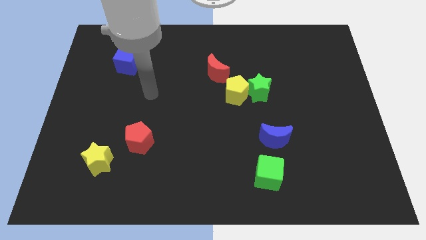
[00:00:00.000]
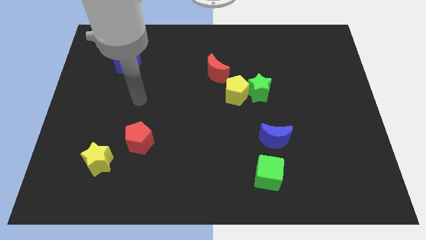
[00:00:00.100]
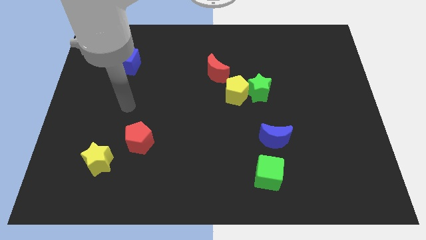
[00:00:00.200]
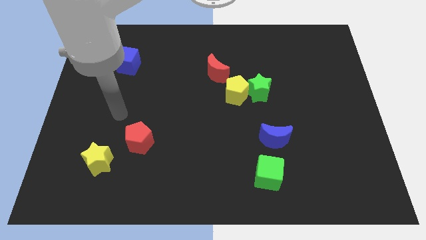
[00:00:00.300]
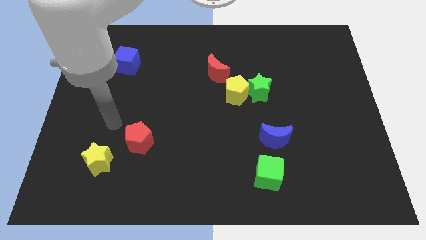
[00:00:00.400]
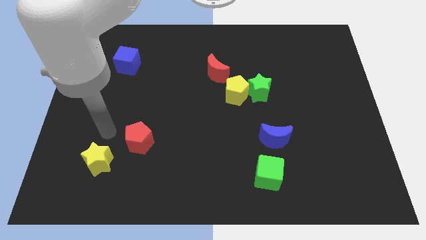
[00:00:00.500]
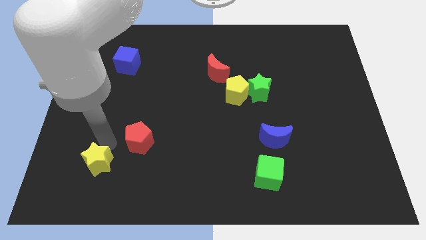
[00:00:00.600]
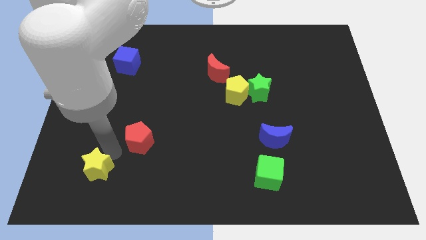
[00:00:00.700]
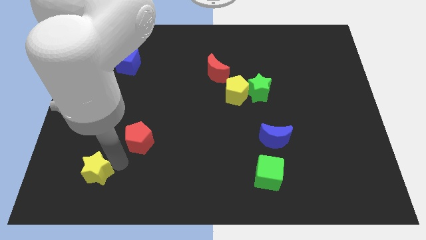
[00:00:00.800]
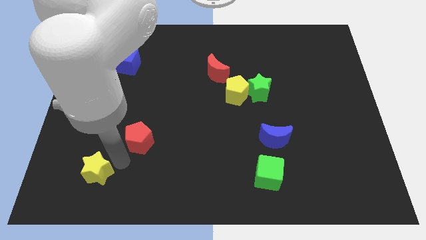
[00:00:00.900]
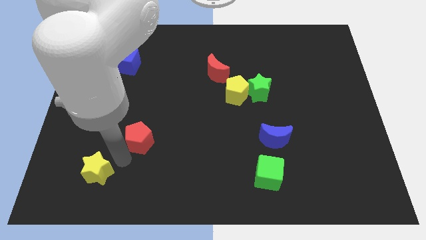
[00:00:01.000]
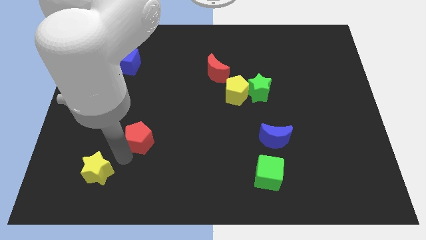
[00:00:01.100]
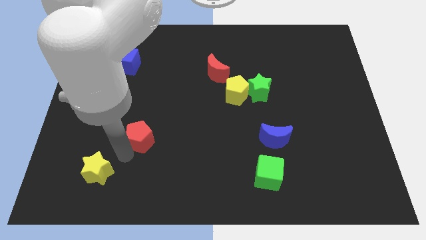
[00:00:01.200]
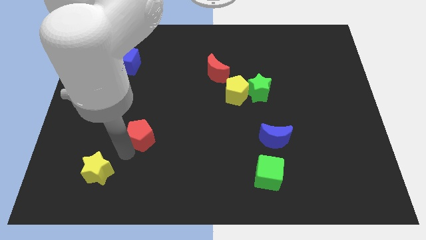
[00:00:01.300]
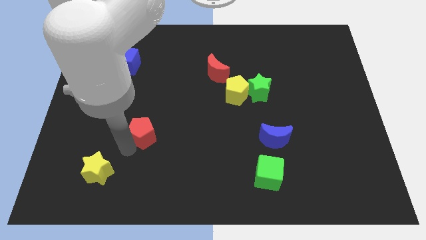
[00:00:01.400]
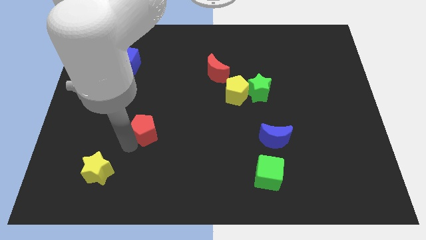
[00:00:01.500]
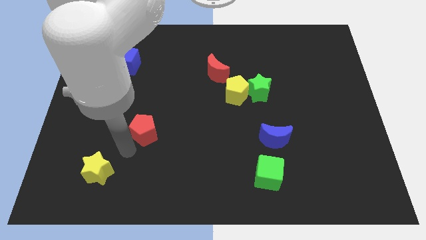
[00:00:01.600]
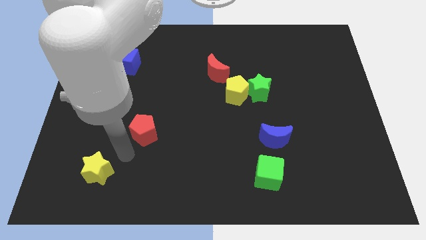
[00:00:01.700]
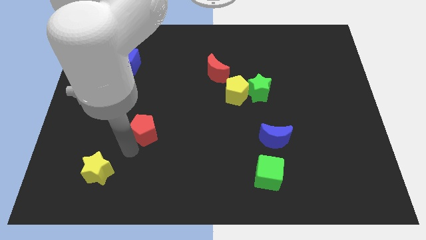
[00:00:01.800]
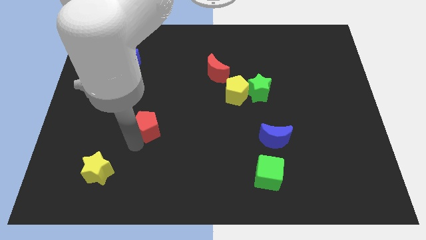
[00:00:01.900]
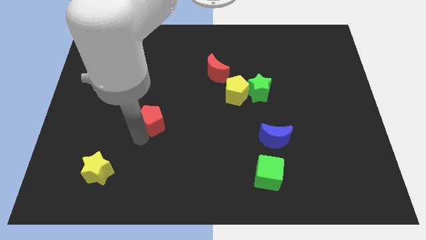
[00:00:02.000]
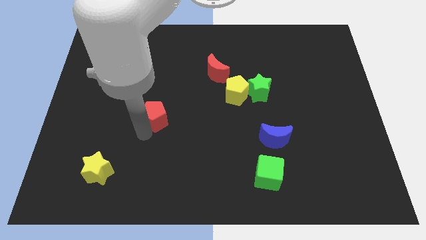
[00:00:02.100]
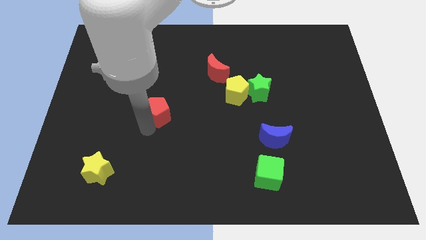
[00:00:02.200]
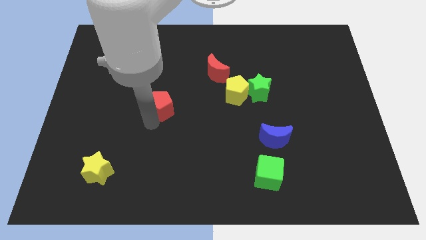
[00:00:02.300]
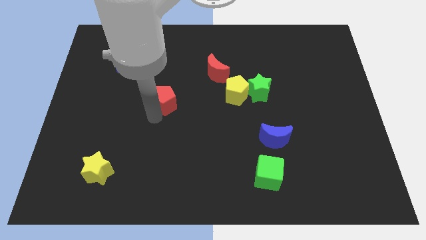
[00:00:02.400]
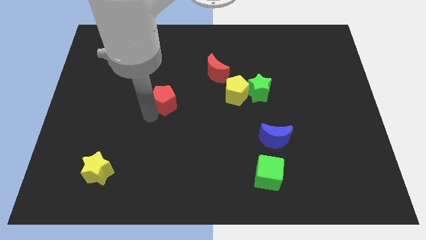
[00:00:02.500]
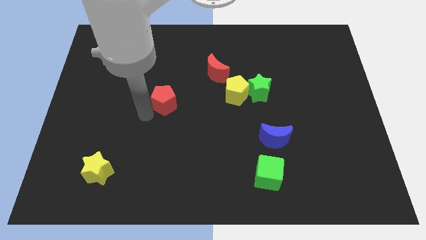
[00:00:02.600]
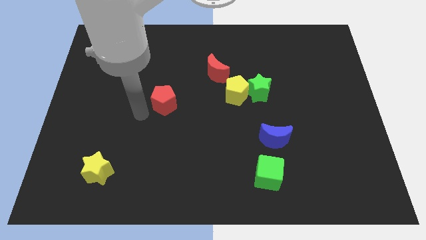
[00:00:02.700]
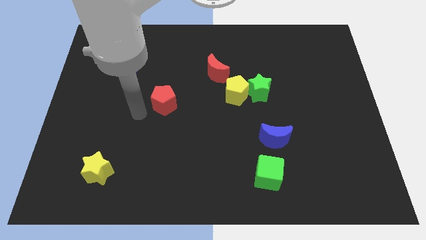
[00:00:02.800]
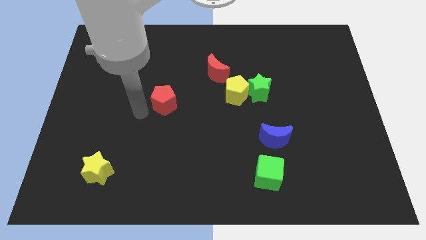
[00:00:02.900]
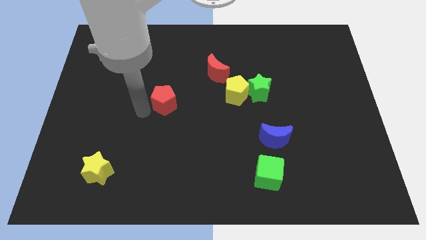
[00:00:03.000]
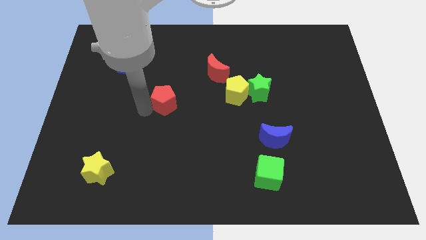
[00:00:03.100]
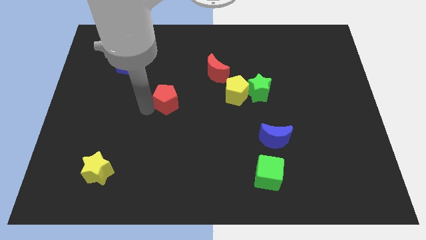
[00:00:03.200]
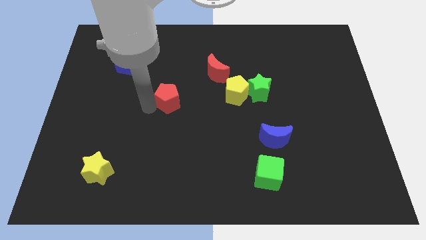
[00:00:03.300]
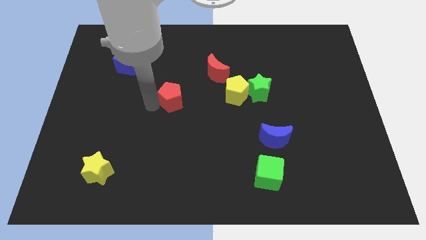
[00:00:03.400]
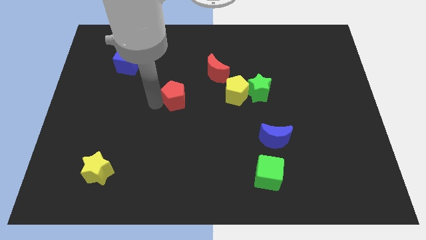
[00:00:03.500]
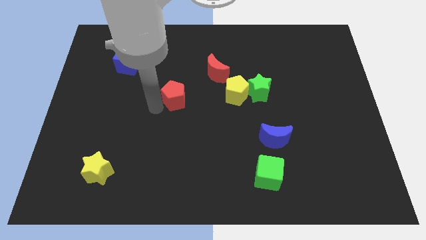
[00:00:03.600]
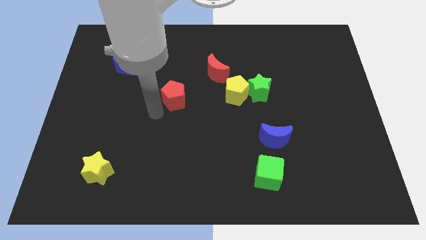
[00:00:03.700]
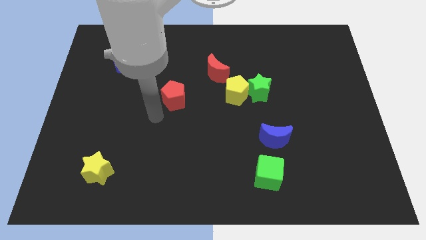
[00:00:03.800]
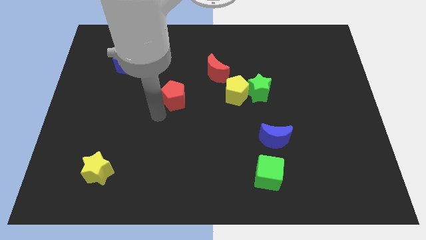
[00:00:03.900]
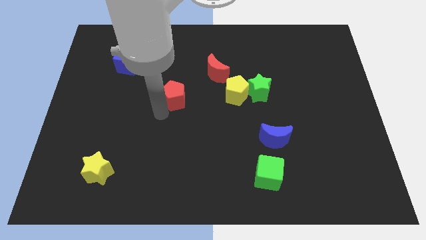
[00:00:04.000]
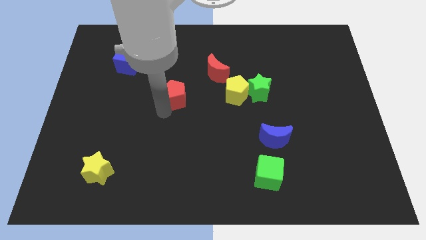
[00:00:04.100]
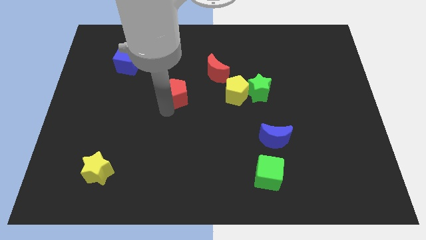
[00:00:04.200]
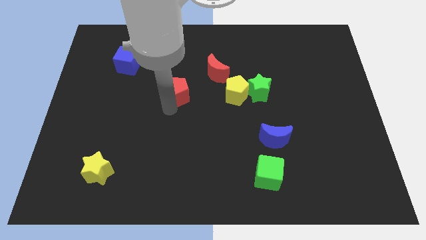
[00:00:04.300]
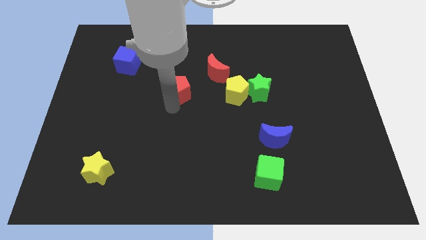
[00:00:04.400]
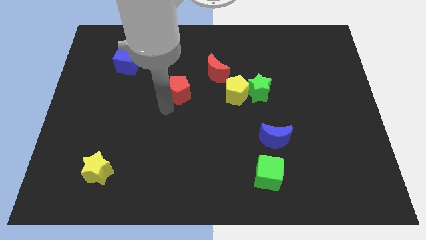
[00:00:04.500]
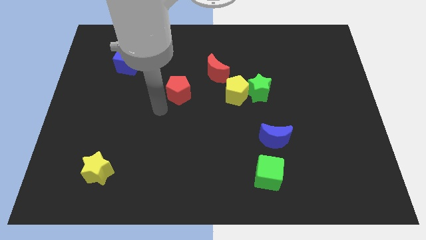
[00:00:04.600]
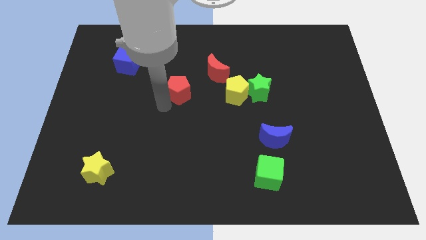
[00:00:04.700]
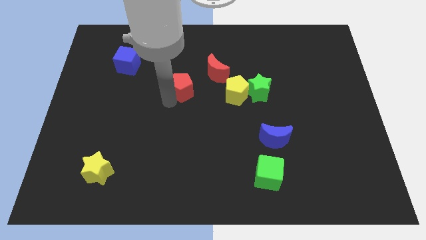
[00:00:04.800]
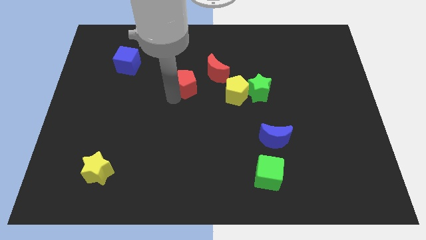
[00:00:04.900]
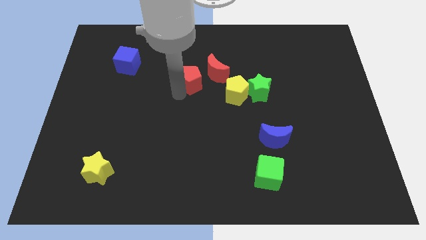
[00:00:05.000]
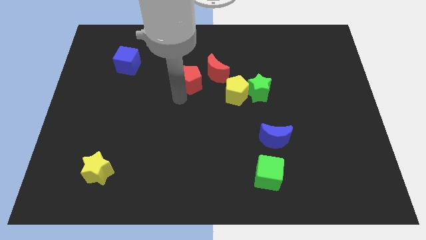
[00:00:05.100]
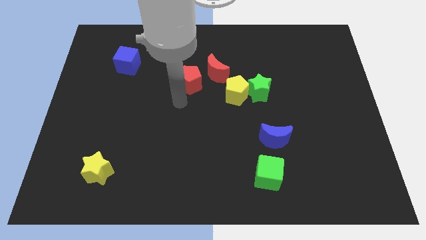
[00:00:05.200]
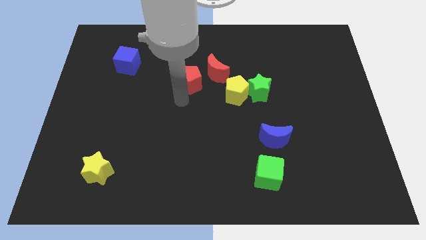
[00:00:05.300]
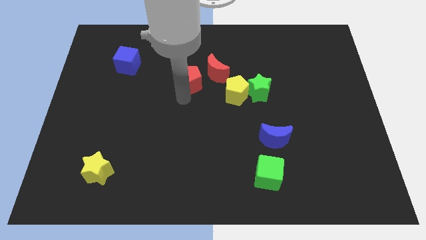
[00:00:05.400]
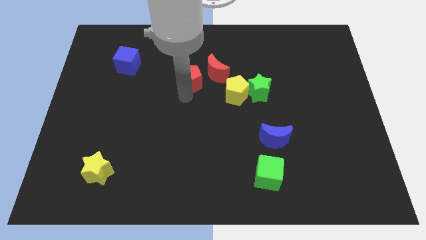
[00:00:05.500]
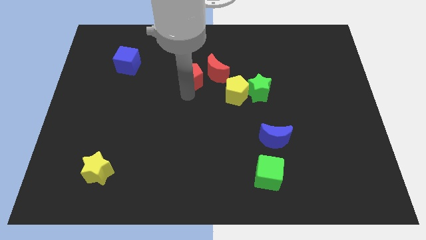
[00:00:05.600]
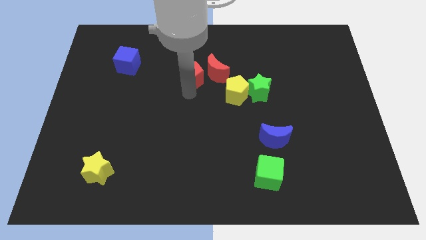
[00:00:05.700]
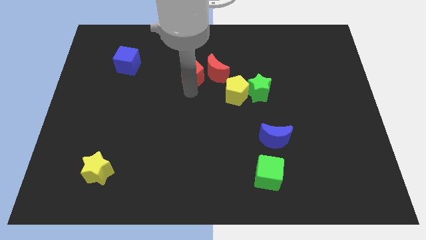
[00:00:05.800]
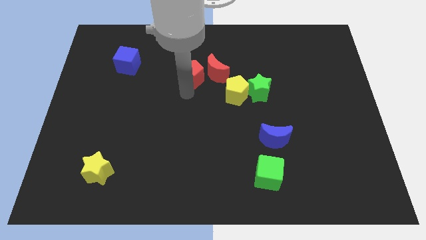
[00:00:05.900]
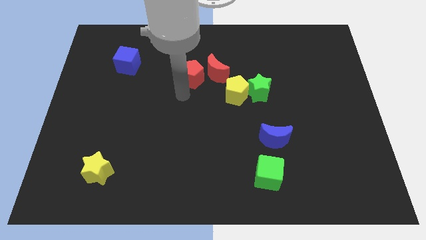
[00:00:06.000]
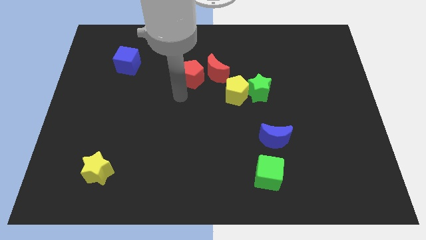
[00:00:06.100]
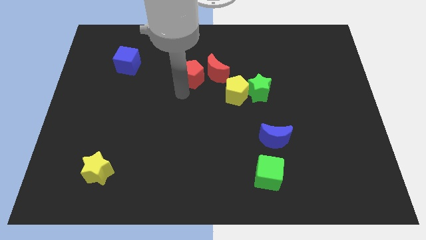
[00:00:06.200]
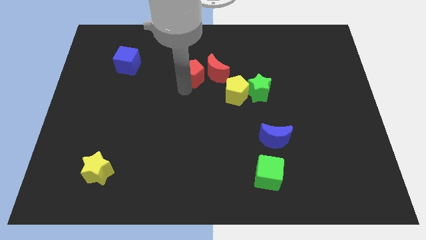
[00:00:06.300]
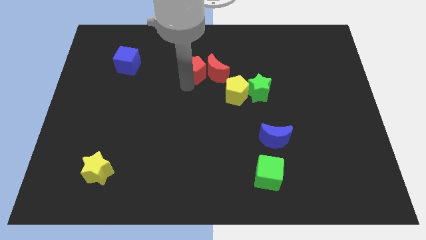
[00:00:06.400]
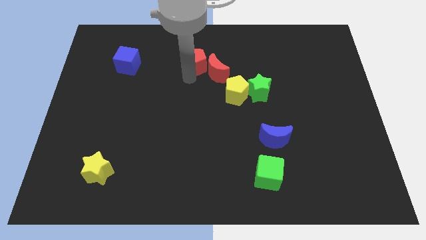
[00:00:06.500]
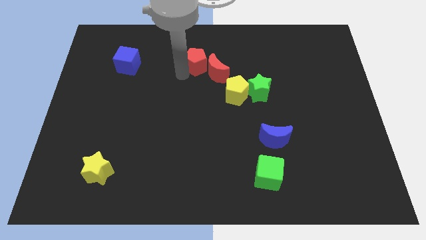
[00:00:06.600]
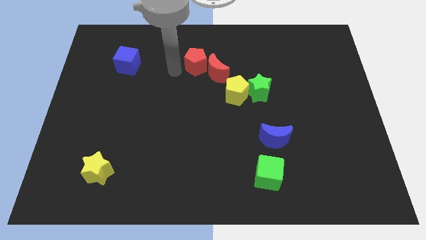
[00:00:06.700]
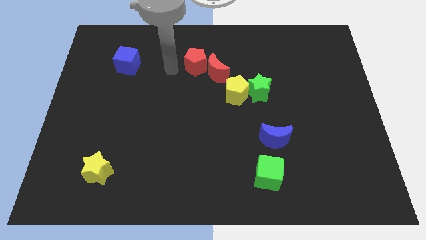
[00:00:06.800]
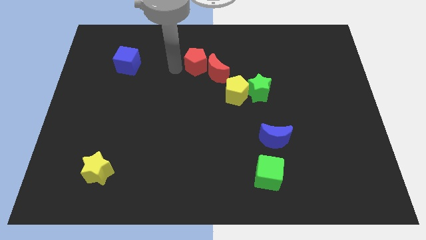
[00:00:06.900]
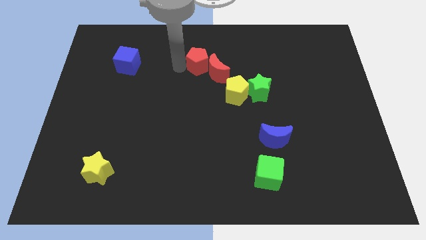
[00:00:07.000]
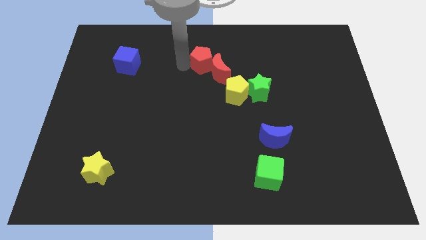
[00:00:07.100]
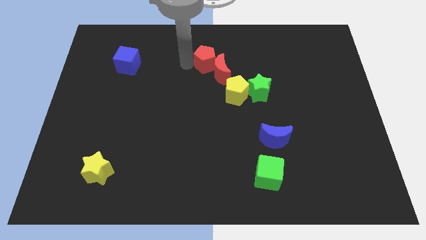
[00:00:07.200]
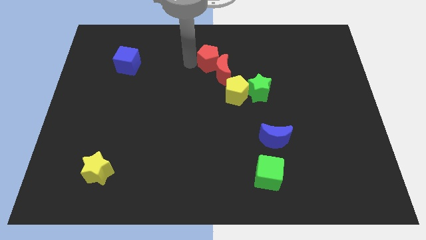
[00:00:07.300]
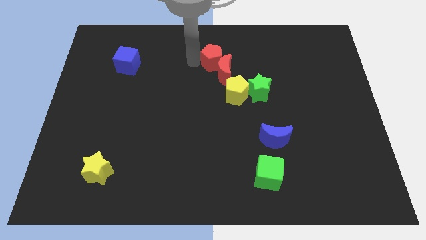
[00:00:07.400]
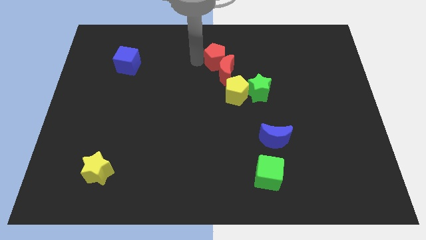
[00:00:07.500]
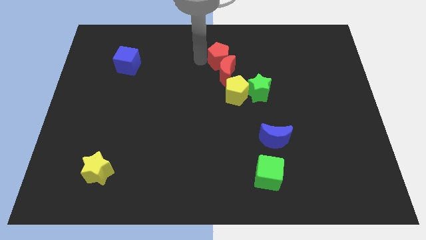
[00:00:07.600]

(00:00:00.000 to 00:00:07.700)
move the red pentagon to the top right of the red moon
